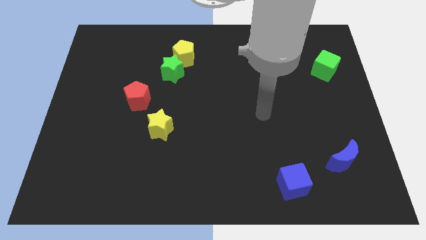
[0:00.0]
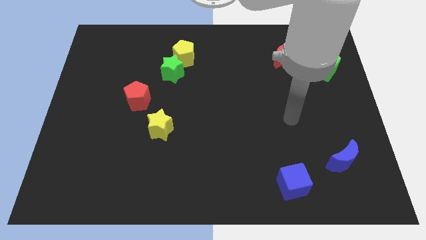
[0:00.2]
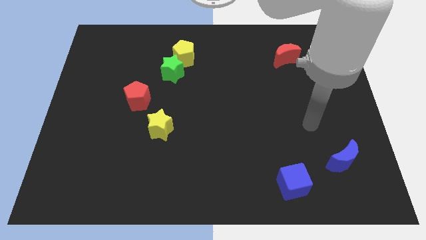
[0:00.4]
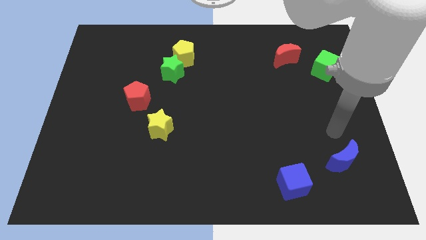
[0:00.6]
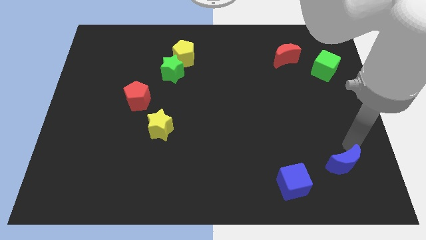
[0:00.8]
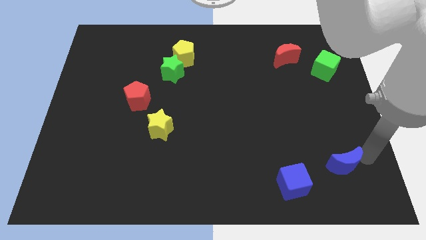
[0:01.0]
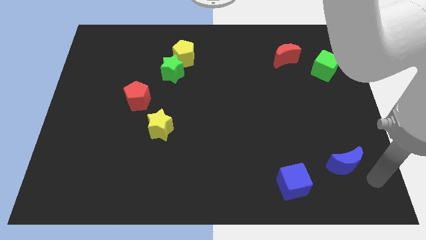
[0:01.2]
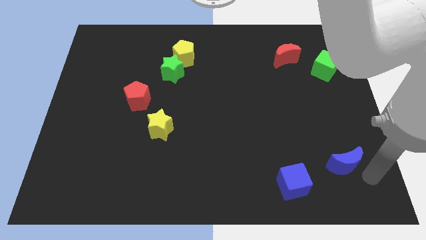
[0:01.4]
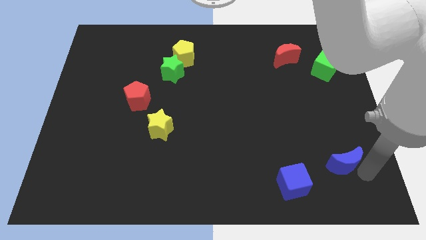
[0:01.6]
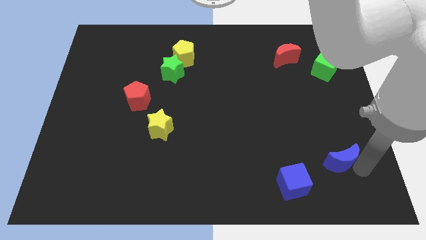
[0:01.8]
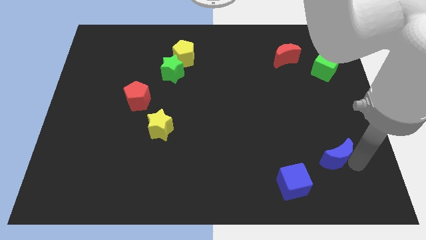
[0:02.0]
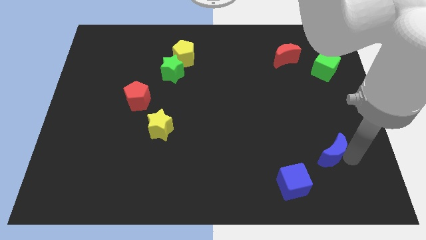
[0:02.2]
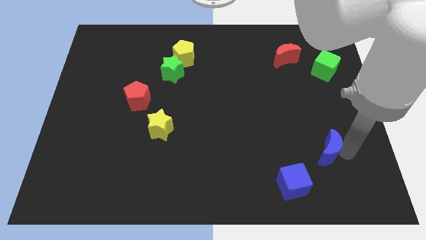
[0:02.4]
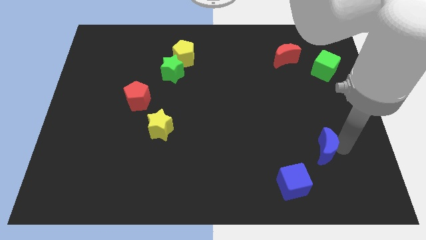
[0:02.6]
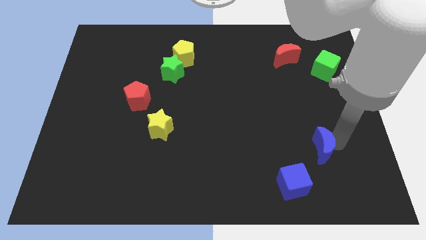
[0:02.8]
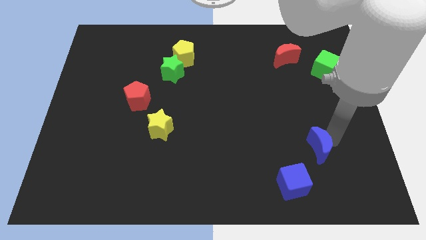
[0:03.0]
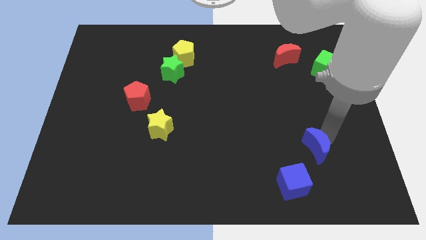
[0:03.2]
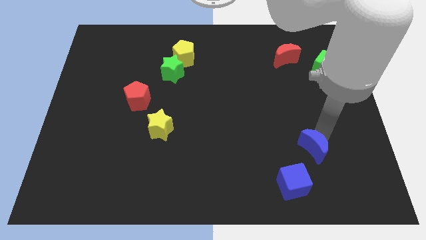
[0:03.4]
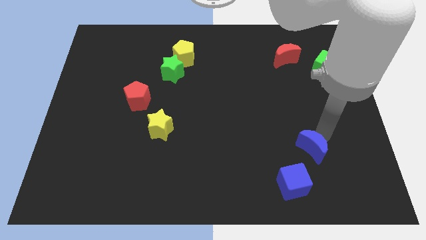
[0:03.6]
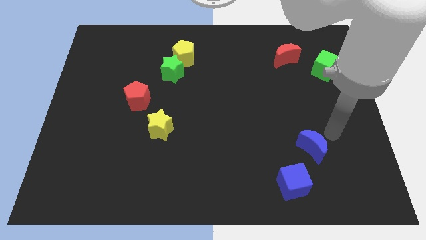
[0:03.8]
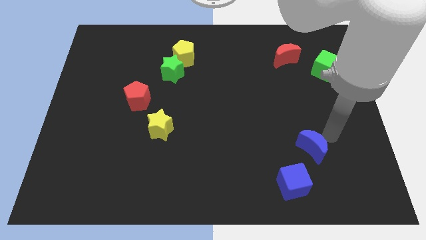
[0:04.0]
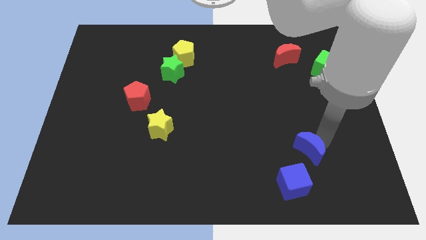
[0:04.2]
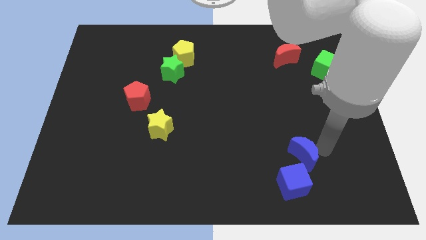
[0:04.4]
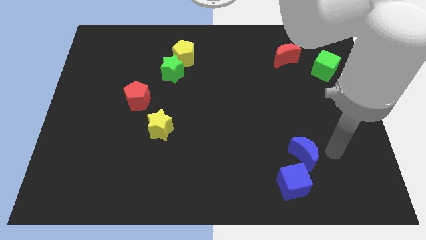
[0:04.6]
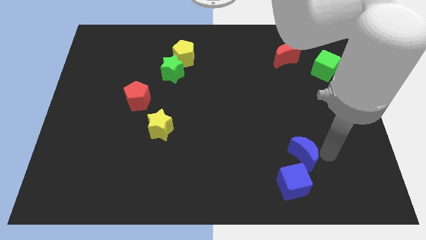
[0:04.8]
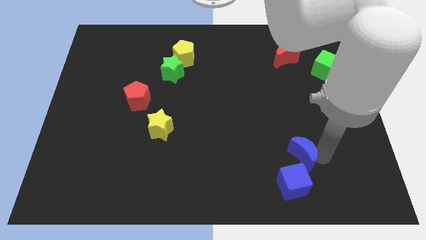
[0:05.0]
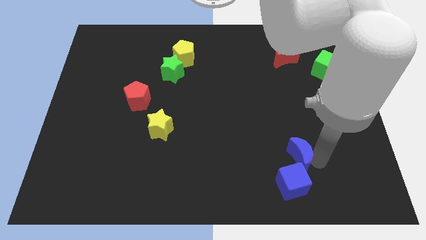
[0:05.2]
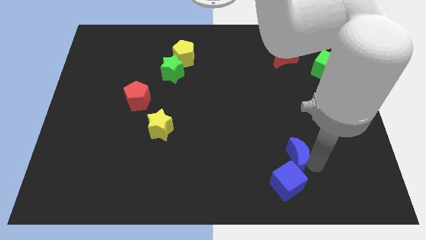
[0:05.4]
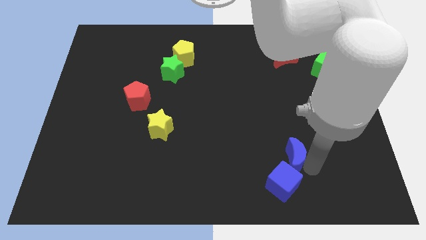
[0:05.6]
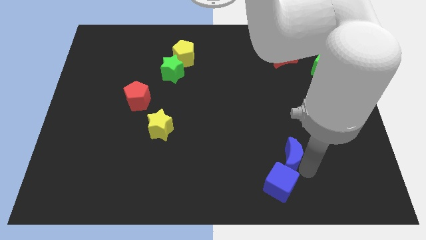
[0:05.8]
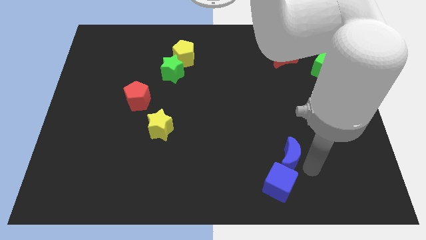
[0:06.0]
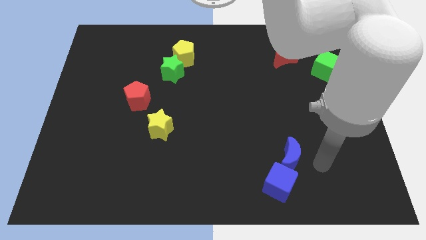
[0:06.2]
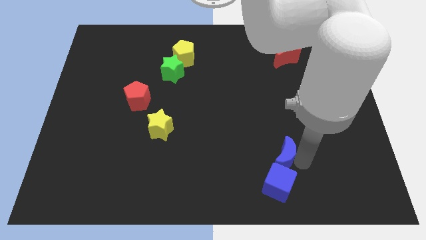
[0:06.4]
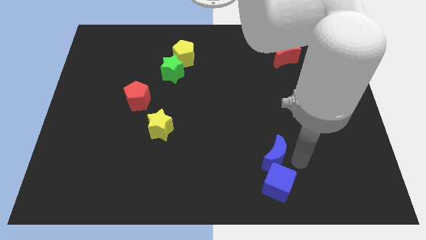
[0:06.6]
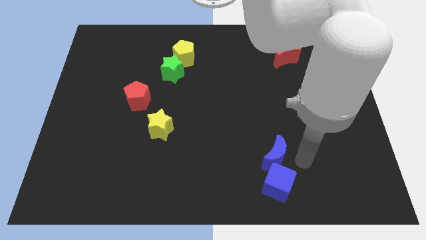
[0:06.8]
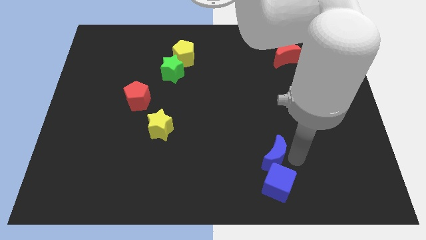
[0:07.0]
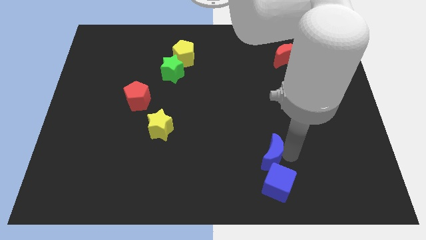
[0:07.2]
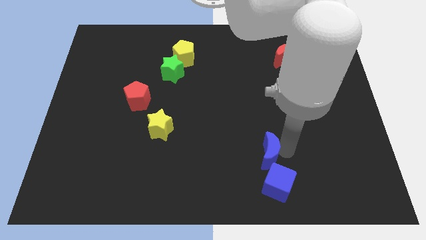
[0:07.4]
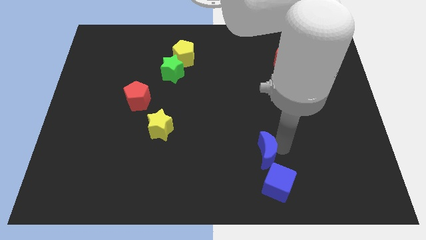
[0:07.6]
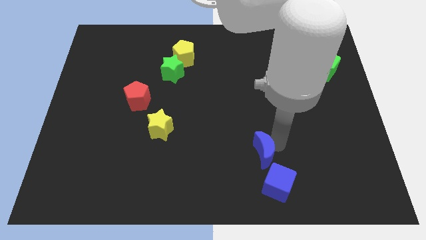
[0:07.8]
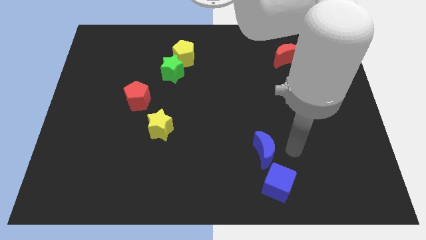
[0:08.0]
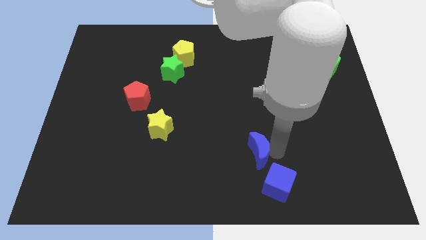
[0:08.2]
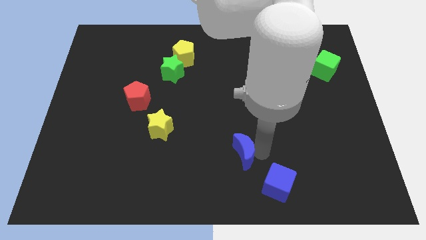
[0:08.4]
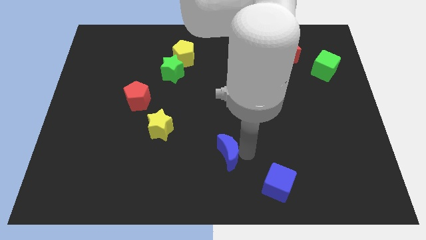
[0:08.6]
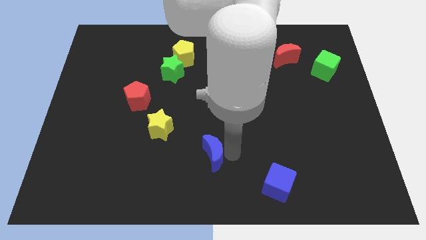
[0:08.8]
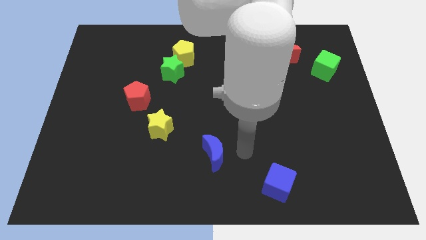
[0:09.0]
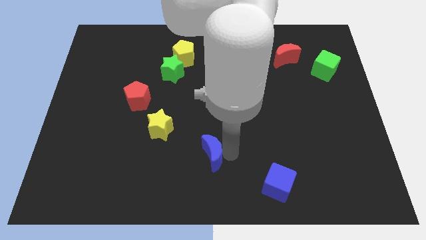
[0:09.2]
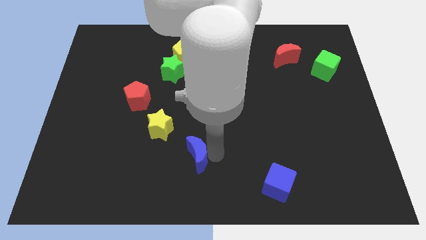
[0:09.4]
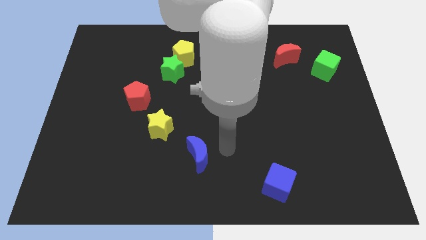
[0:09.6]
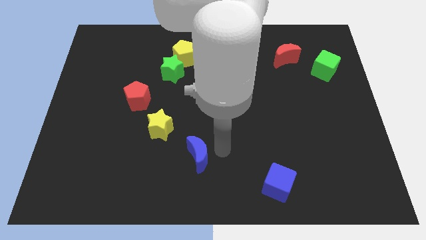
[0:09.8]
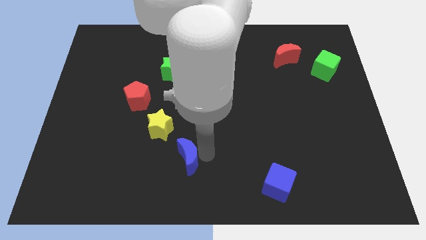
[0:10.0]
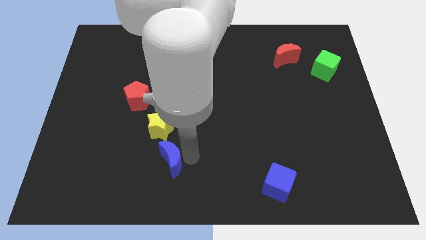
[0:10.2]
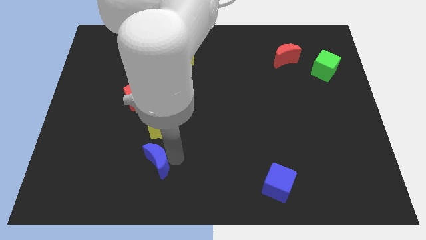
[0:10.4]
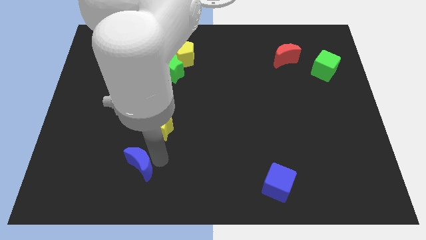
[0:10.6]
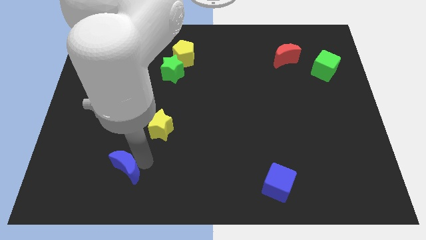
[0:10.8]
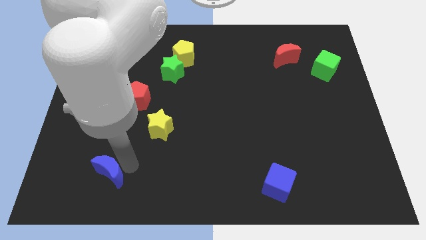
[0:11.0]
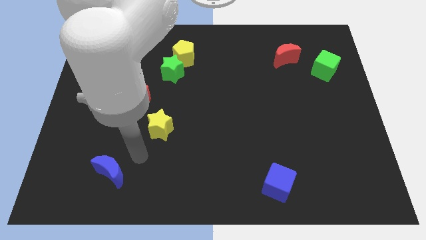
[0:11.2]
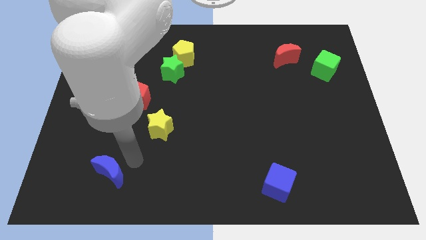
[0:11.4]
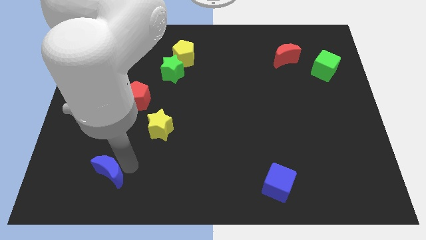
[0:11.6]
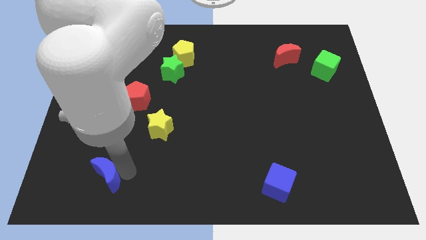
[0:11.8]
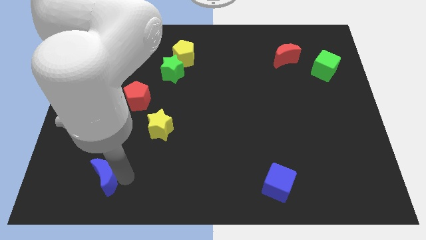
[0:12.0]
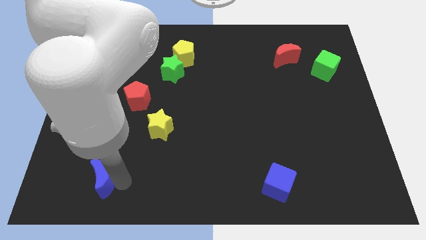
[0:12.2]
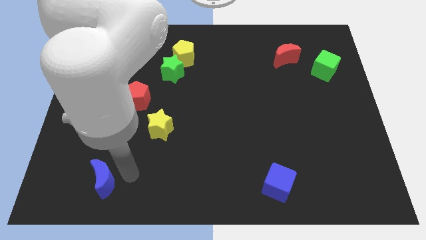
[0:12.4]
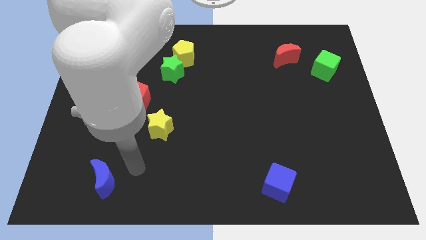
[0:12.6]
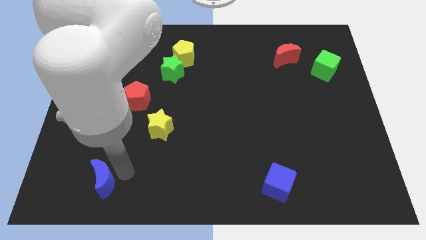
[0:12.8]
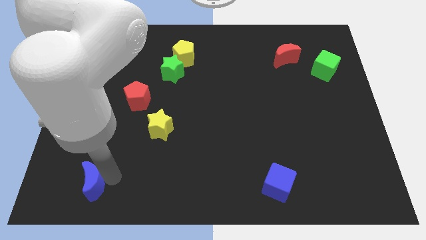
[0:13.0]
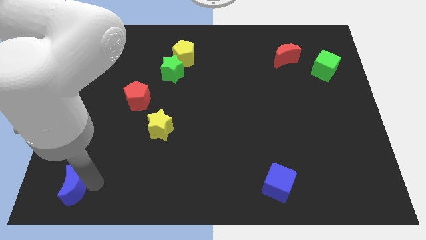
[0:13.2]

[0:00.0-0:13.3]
push the blue moon to the bottom left of the board

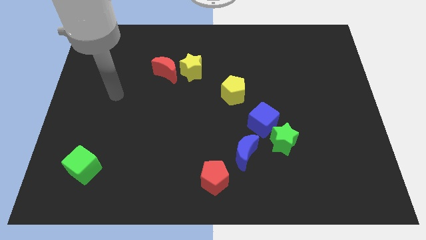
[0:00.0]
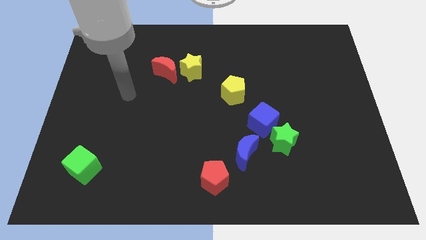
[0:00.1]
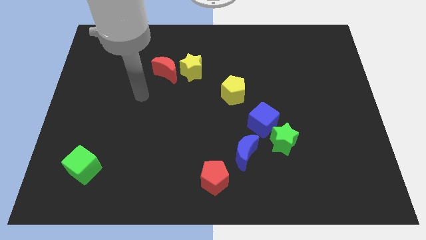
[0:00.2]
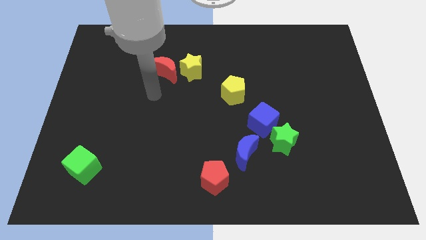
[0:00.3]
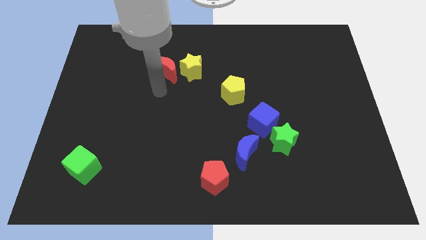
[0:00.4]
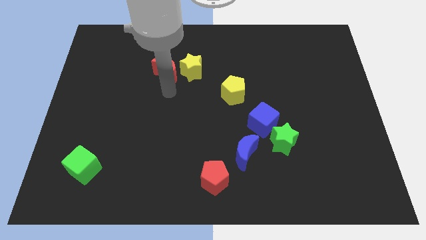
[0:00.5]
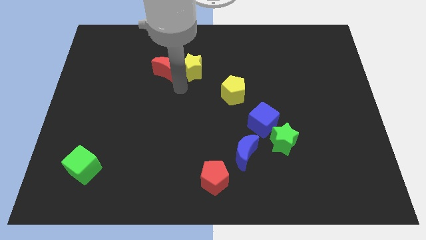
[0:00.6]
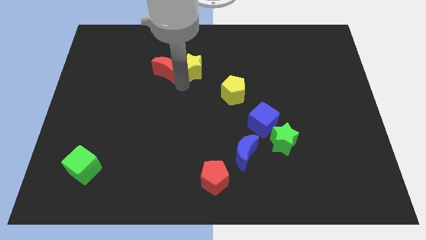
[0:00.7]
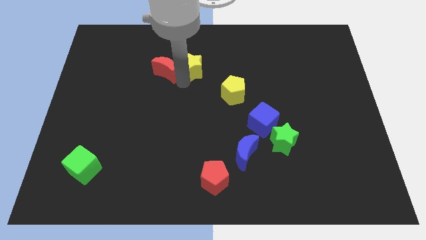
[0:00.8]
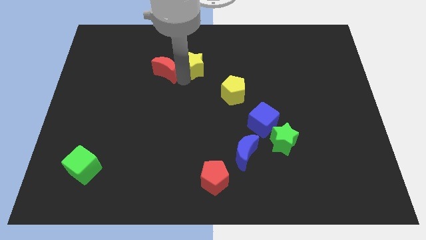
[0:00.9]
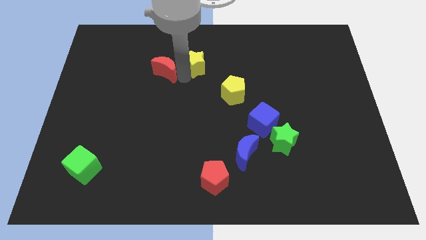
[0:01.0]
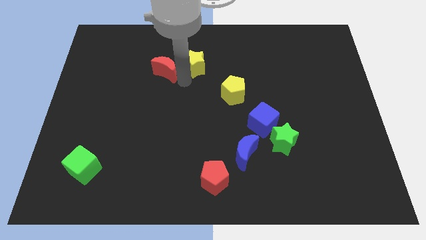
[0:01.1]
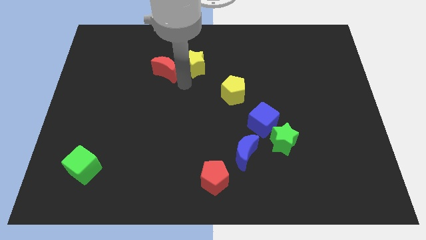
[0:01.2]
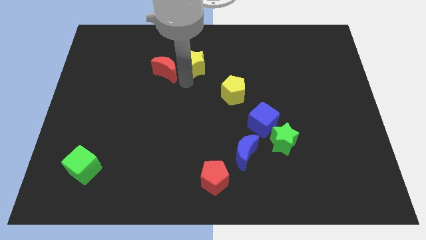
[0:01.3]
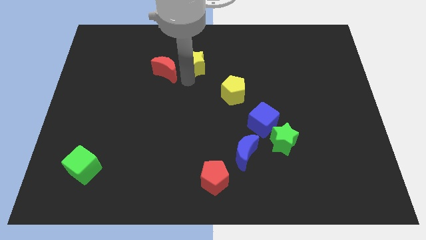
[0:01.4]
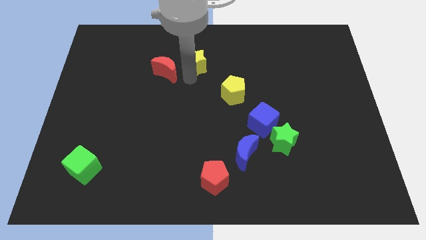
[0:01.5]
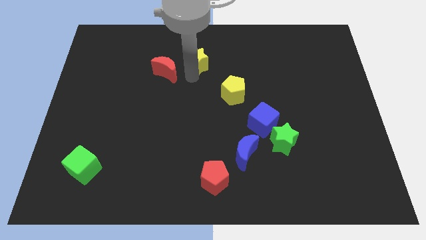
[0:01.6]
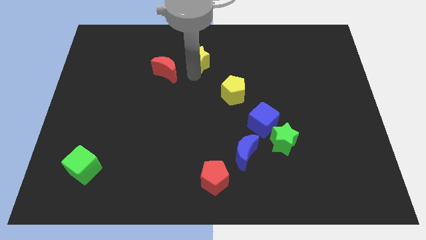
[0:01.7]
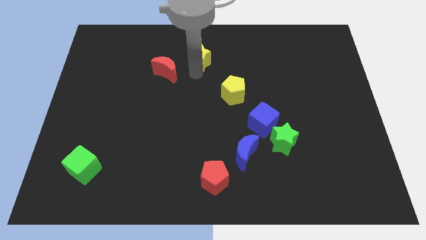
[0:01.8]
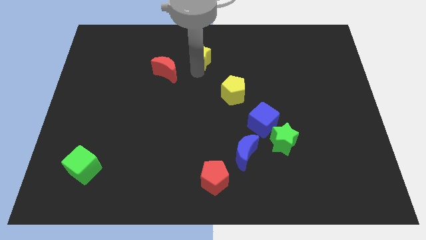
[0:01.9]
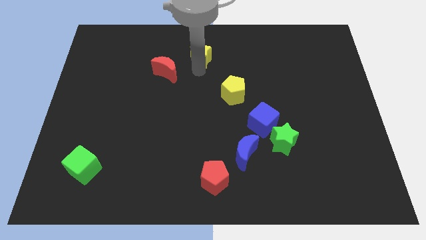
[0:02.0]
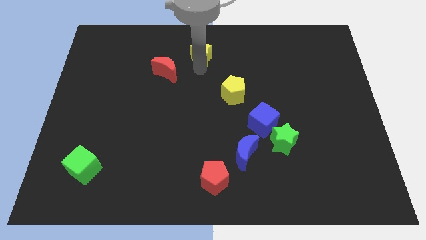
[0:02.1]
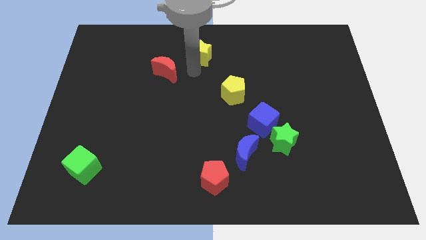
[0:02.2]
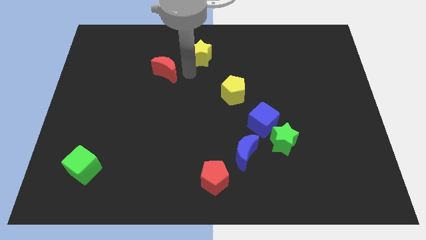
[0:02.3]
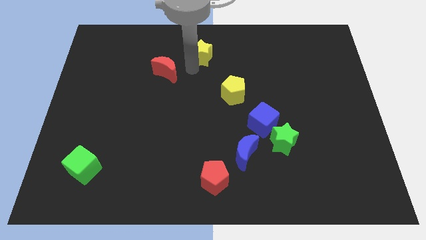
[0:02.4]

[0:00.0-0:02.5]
push the yellow star to the towards your base
